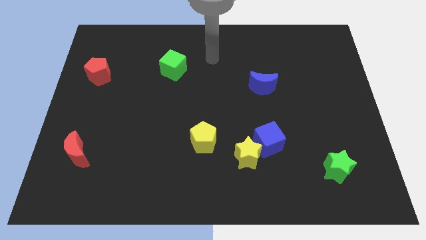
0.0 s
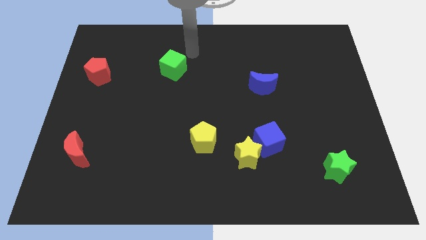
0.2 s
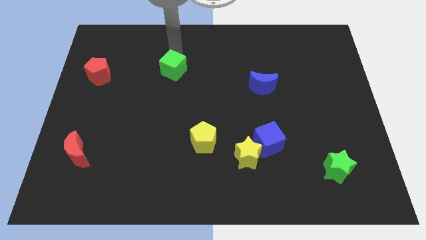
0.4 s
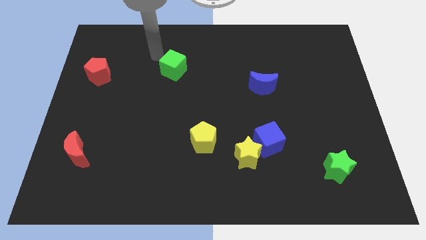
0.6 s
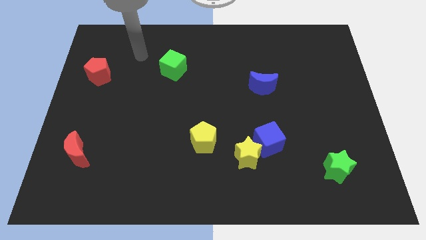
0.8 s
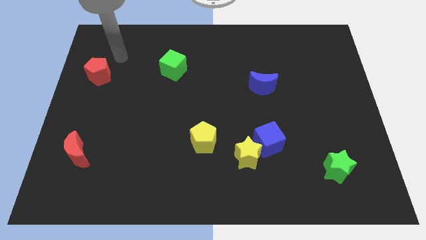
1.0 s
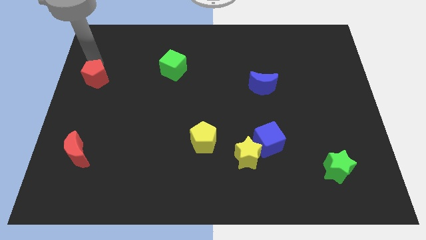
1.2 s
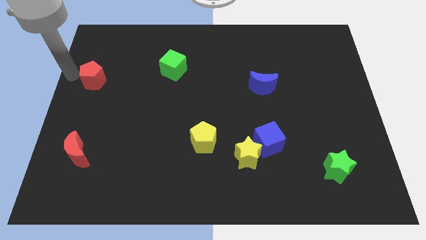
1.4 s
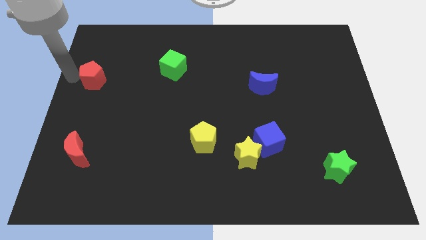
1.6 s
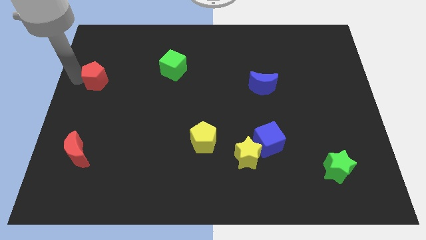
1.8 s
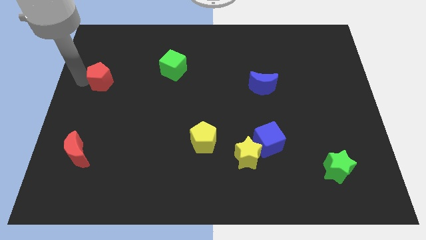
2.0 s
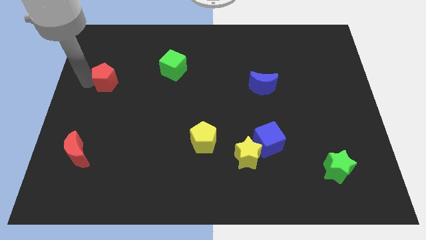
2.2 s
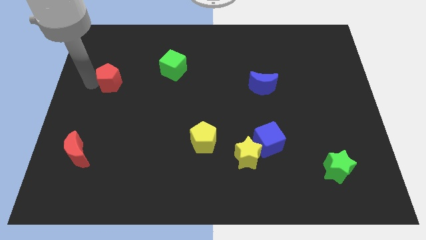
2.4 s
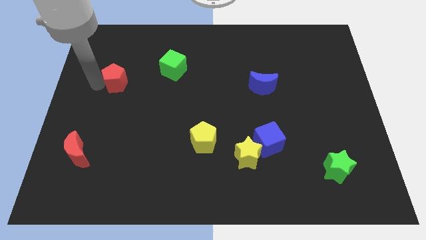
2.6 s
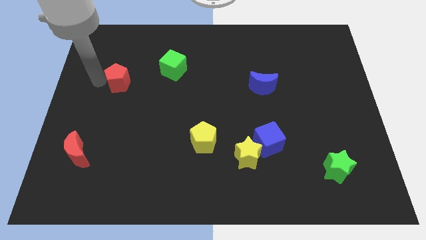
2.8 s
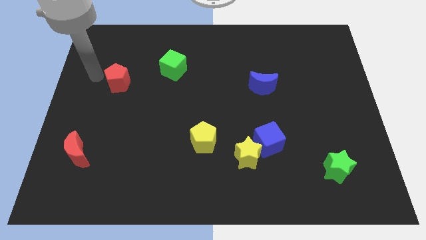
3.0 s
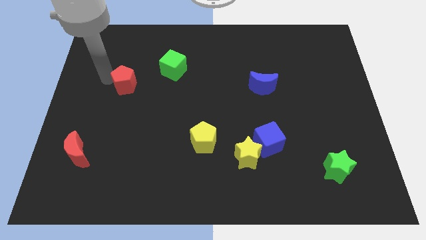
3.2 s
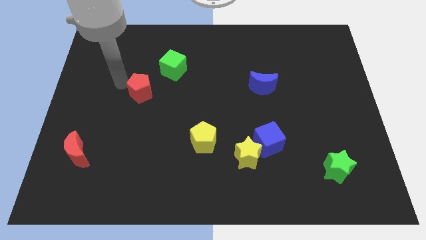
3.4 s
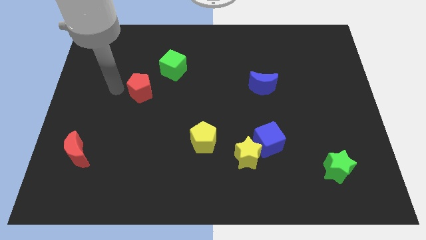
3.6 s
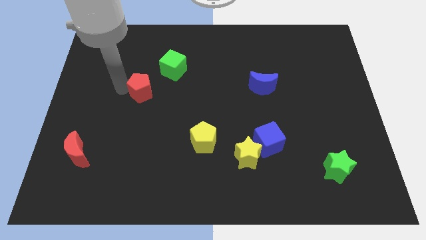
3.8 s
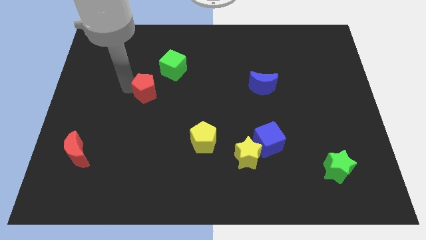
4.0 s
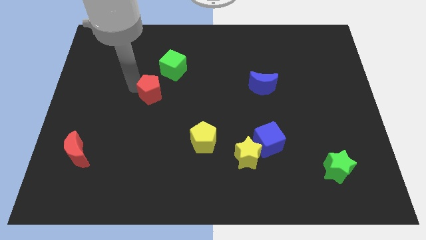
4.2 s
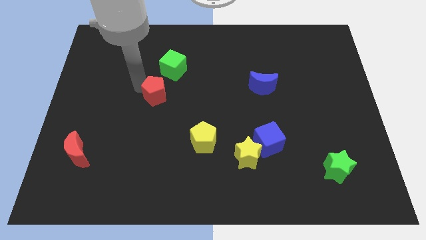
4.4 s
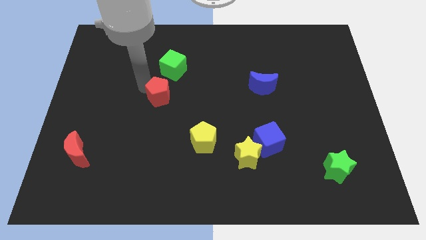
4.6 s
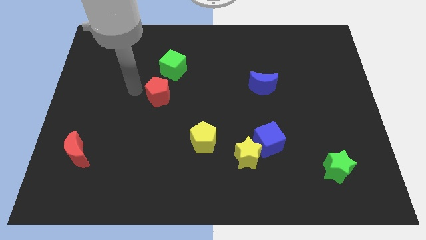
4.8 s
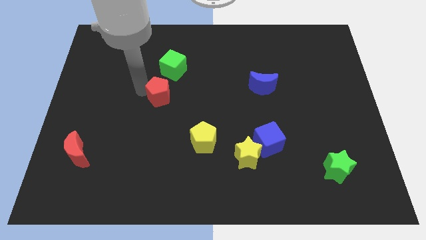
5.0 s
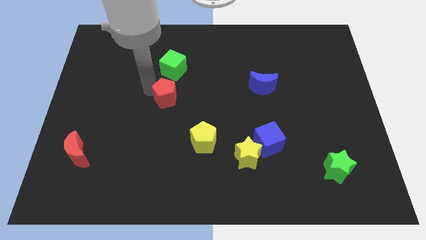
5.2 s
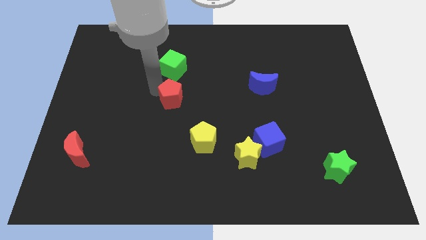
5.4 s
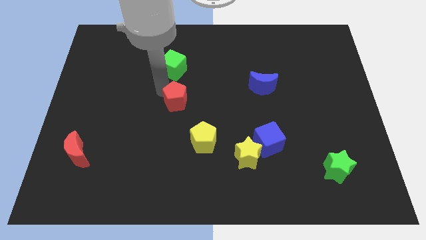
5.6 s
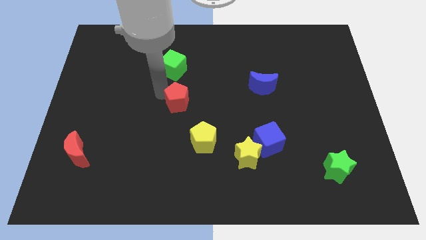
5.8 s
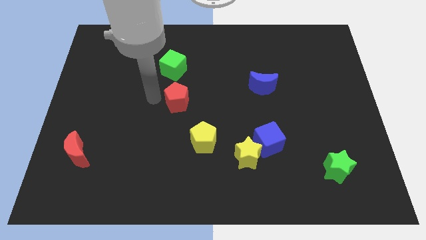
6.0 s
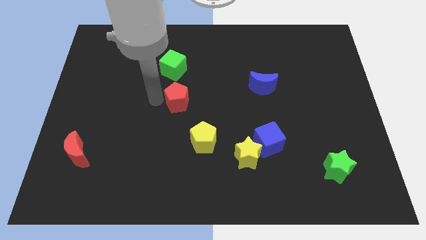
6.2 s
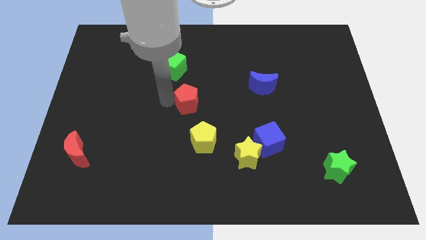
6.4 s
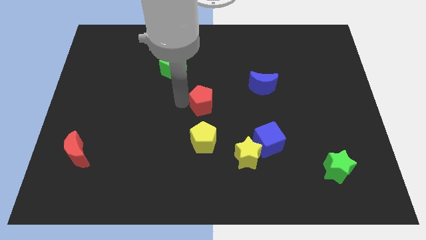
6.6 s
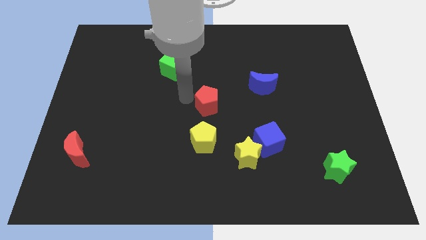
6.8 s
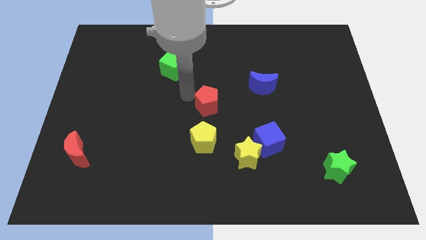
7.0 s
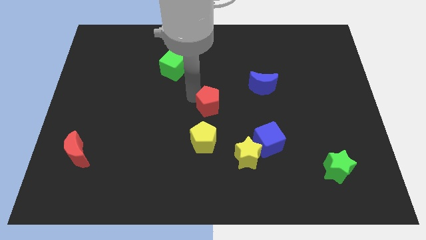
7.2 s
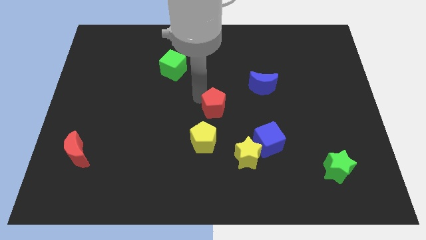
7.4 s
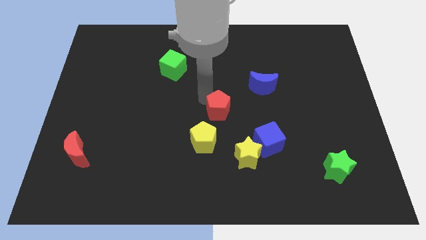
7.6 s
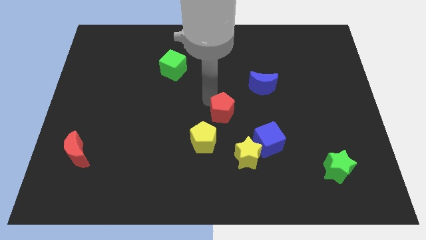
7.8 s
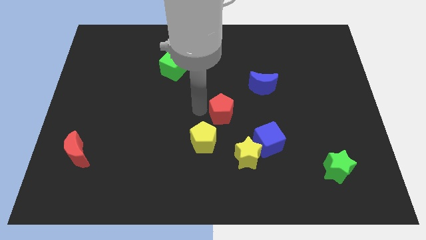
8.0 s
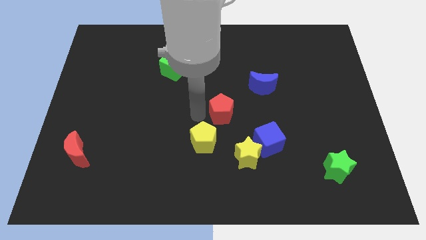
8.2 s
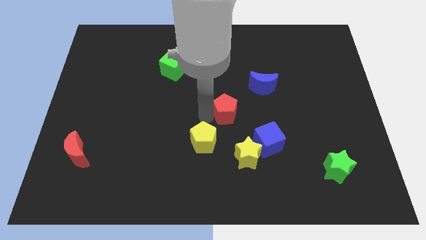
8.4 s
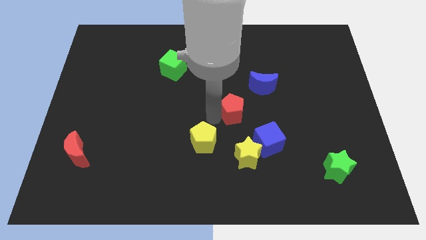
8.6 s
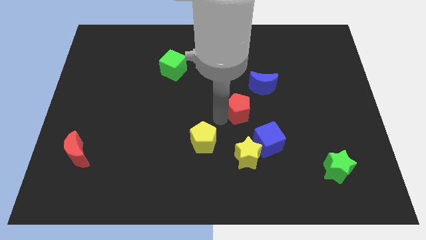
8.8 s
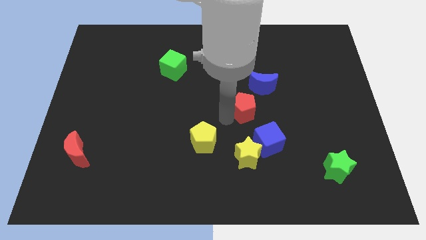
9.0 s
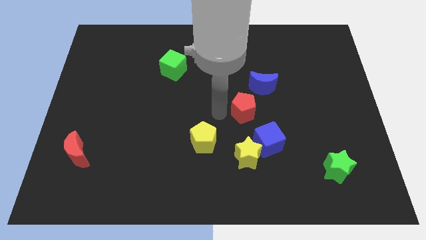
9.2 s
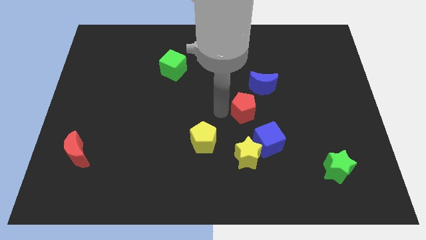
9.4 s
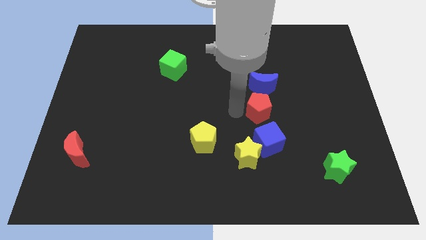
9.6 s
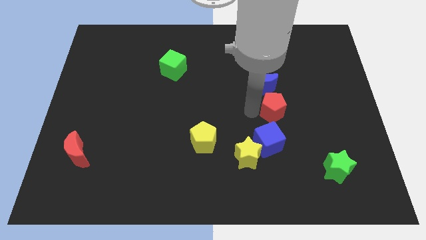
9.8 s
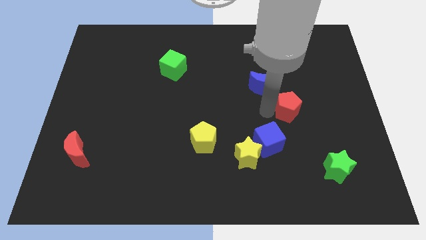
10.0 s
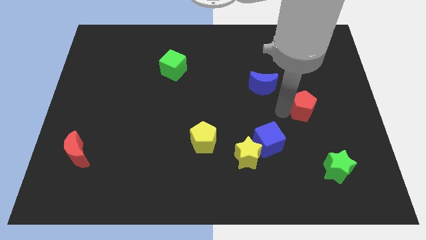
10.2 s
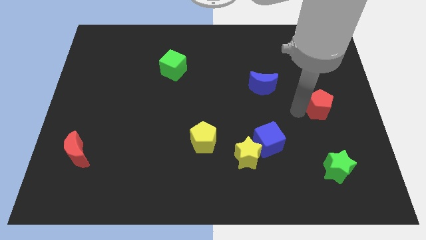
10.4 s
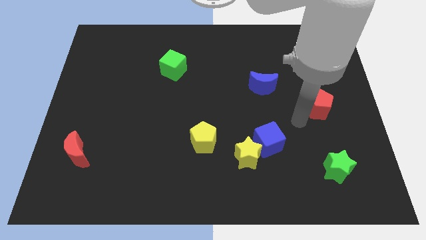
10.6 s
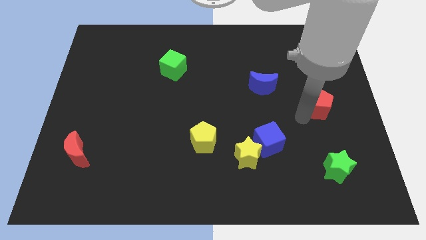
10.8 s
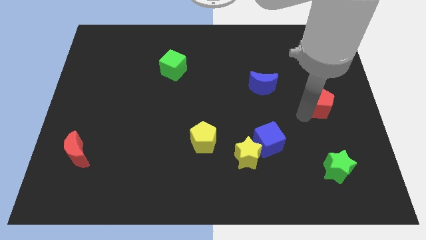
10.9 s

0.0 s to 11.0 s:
put the red pentagon to the center right

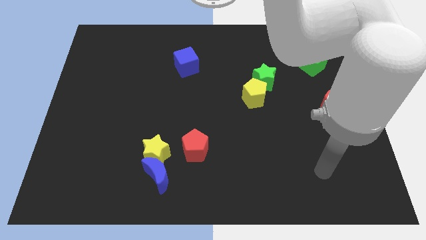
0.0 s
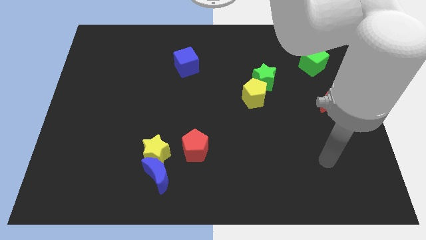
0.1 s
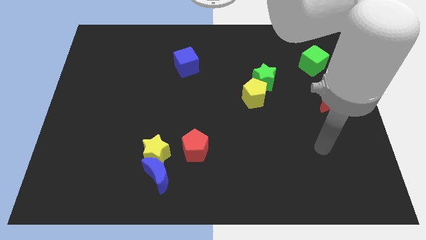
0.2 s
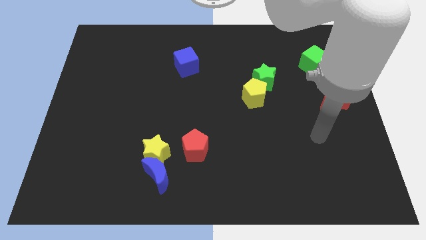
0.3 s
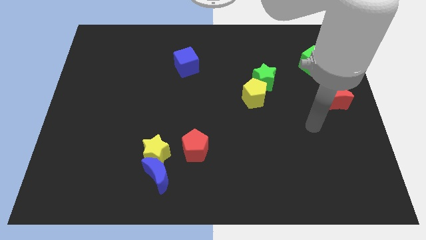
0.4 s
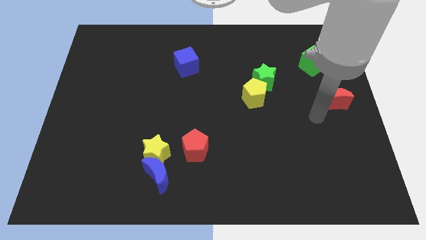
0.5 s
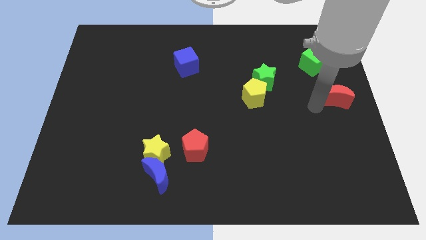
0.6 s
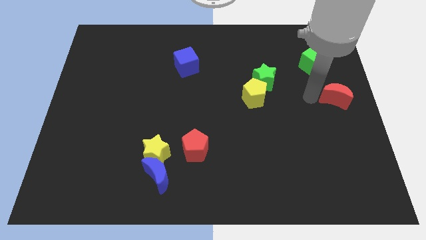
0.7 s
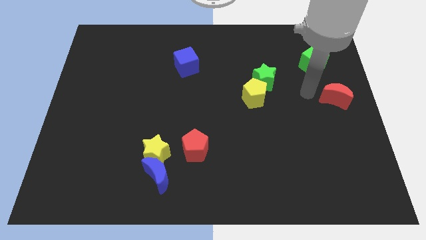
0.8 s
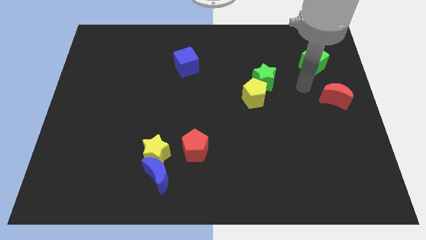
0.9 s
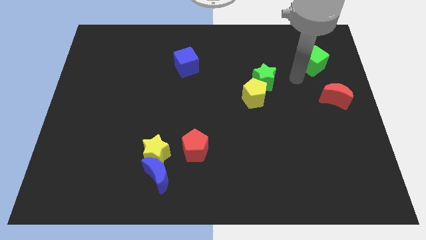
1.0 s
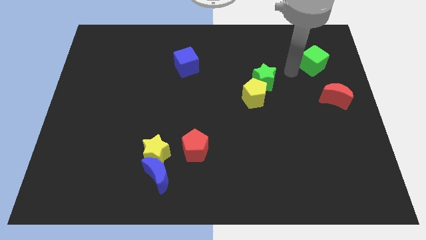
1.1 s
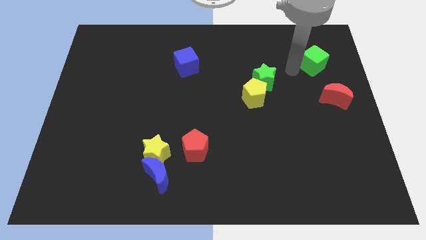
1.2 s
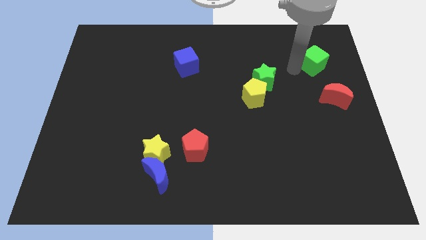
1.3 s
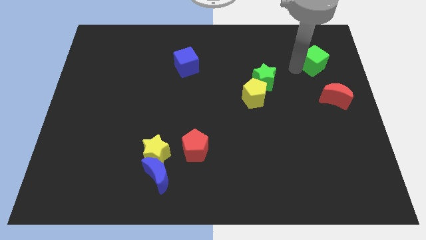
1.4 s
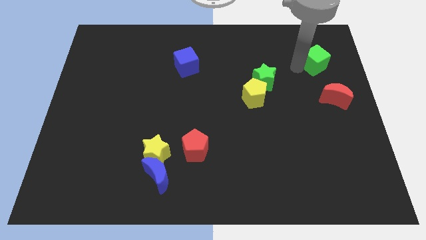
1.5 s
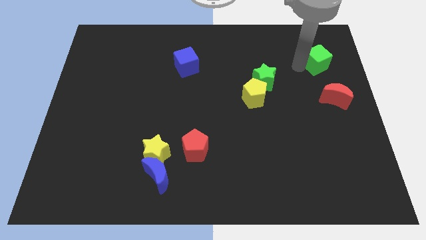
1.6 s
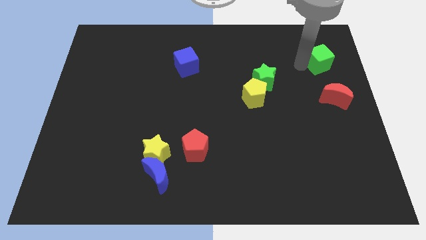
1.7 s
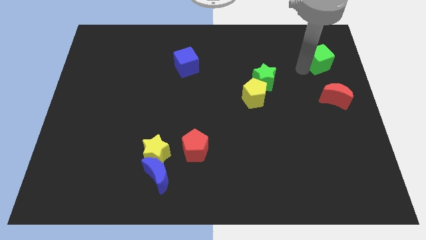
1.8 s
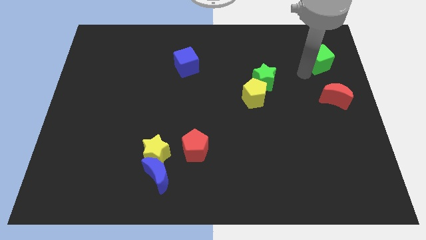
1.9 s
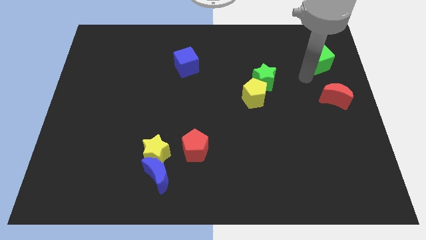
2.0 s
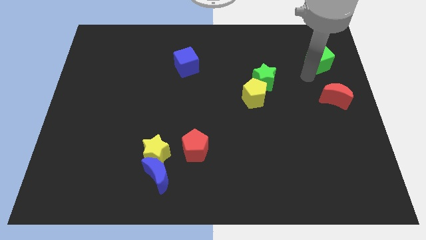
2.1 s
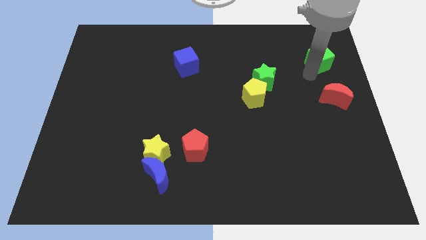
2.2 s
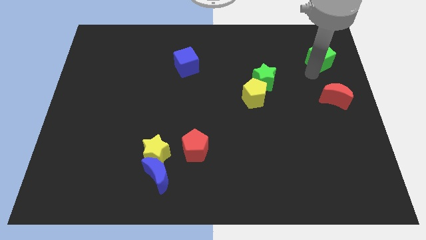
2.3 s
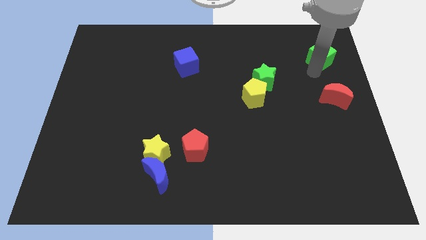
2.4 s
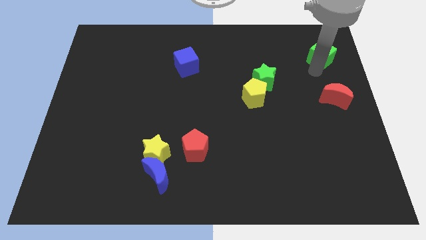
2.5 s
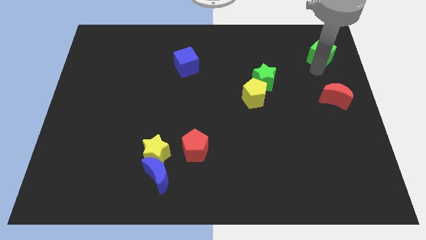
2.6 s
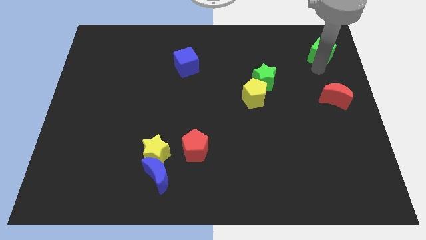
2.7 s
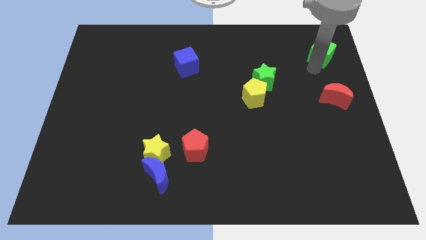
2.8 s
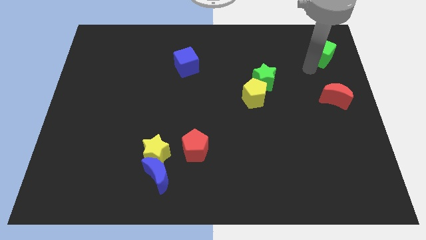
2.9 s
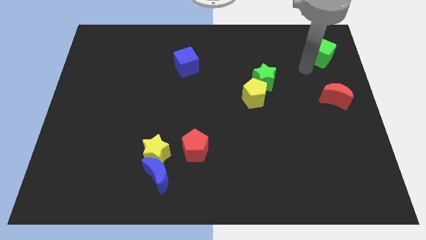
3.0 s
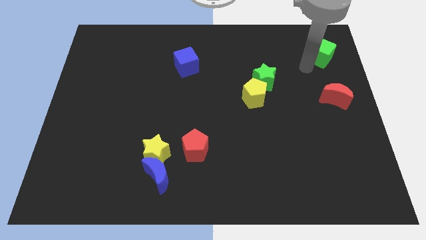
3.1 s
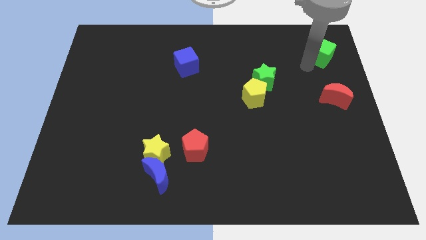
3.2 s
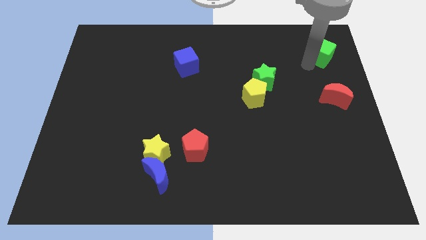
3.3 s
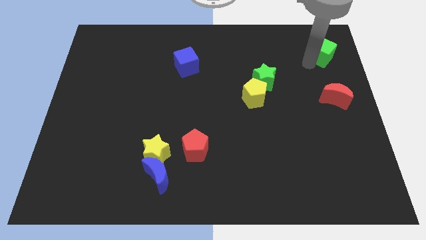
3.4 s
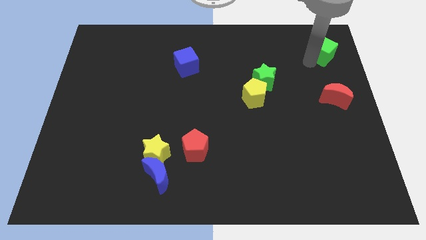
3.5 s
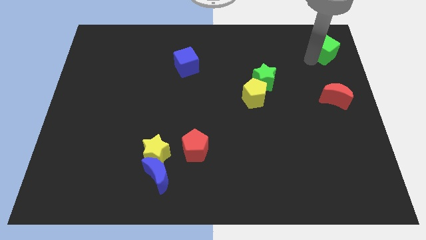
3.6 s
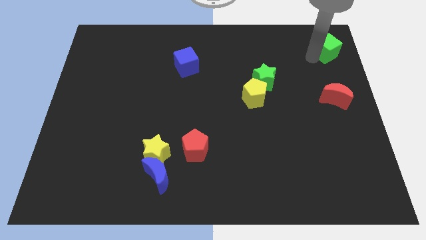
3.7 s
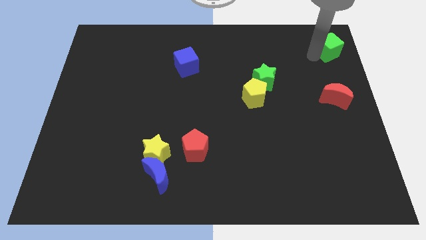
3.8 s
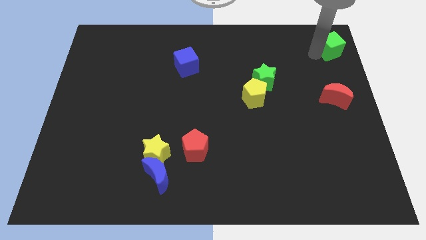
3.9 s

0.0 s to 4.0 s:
push the green cube to the upper right corner
